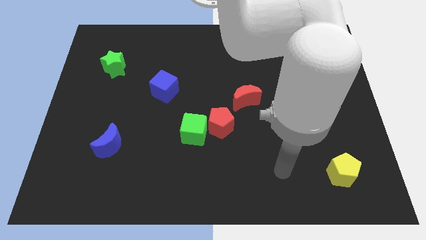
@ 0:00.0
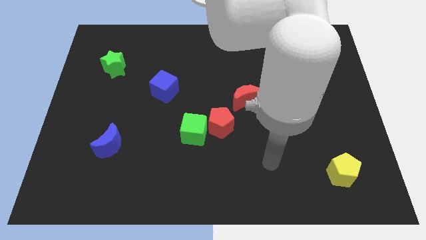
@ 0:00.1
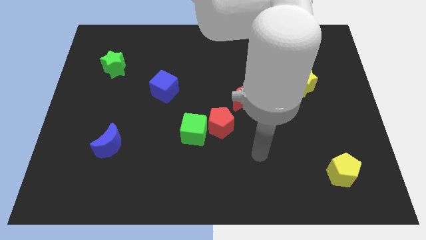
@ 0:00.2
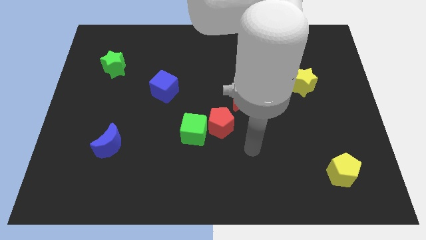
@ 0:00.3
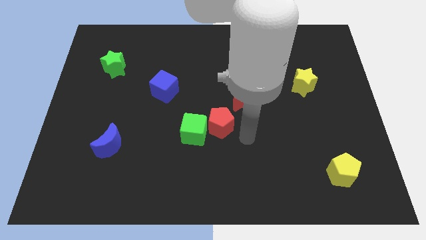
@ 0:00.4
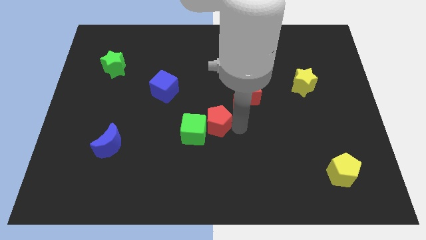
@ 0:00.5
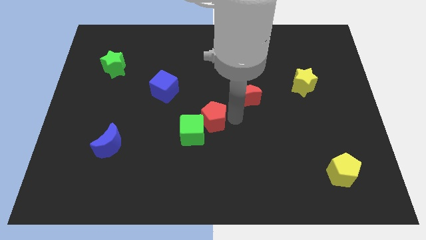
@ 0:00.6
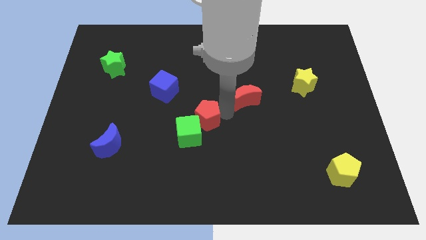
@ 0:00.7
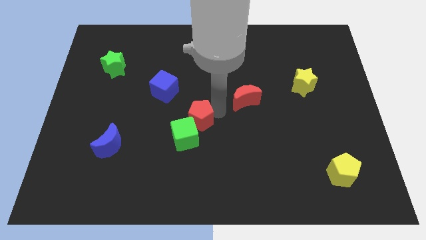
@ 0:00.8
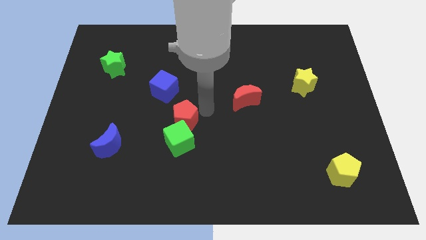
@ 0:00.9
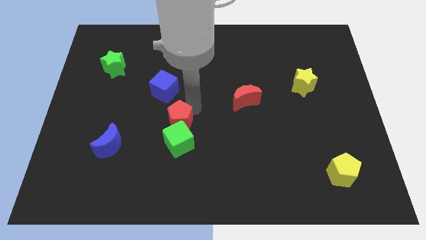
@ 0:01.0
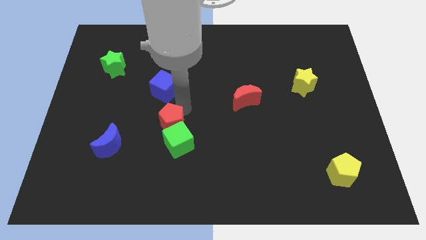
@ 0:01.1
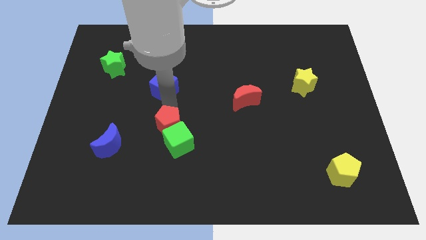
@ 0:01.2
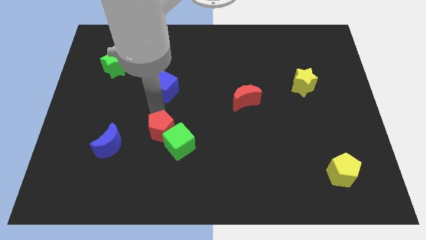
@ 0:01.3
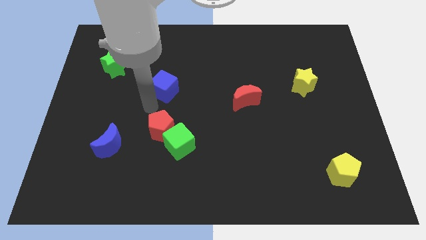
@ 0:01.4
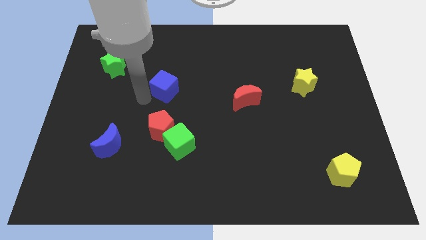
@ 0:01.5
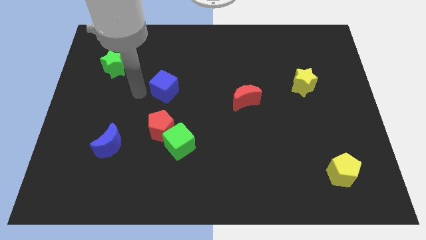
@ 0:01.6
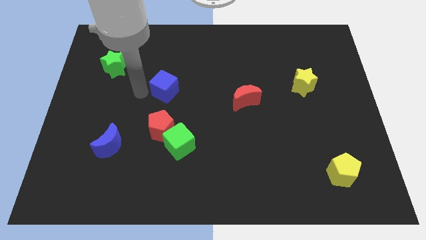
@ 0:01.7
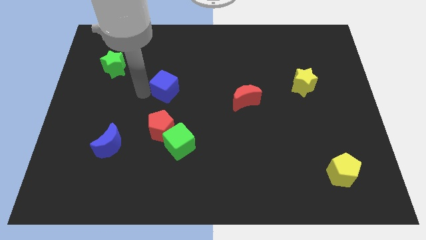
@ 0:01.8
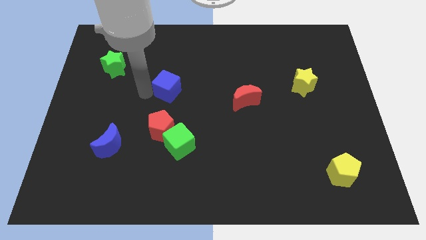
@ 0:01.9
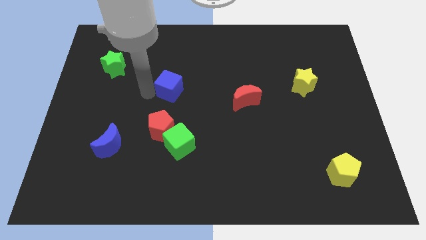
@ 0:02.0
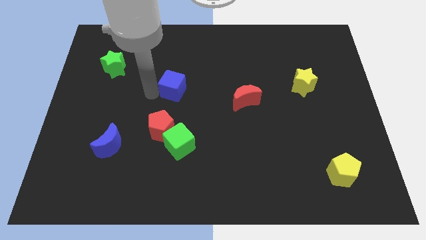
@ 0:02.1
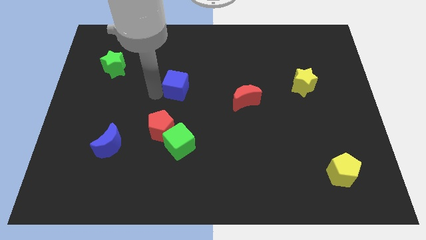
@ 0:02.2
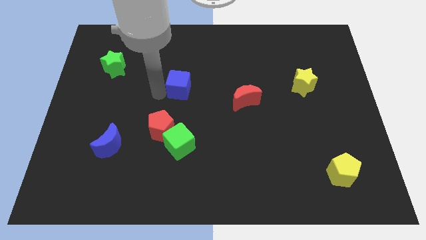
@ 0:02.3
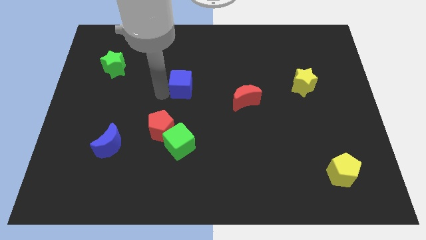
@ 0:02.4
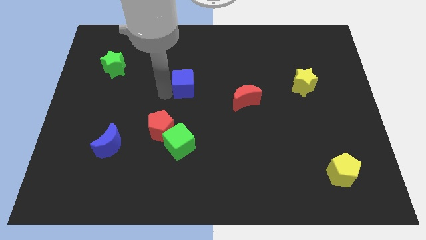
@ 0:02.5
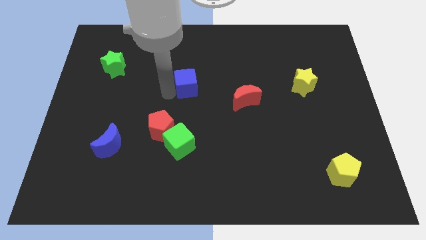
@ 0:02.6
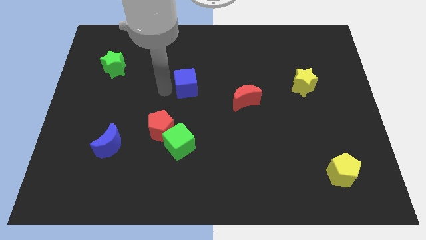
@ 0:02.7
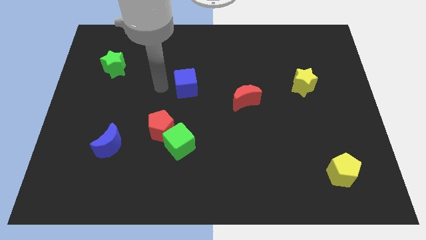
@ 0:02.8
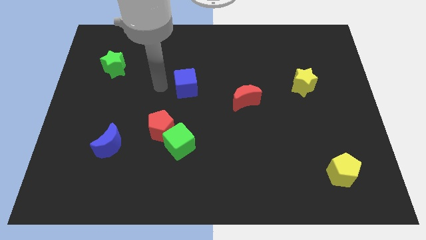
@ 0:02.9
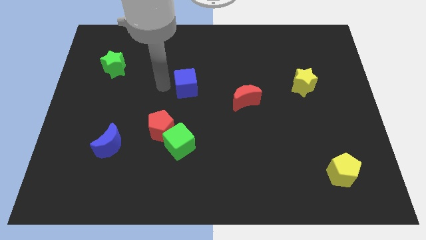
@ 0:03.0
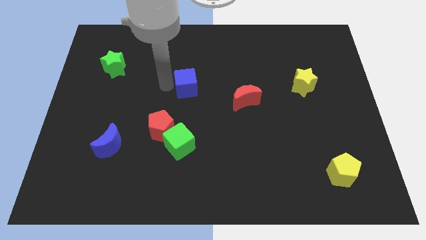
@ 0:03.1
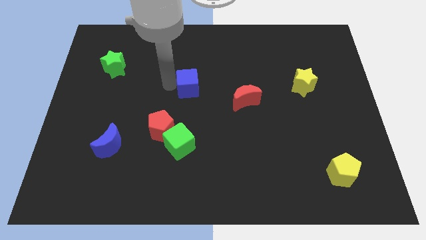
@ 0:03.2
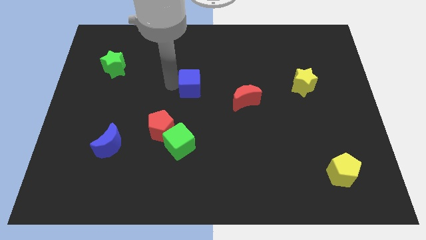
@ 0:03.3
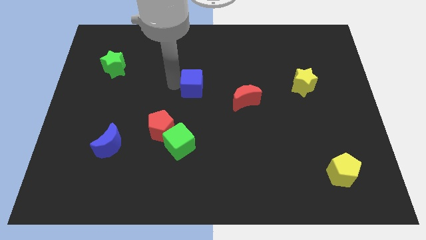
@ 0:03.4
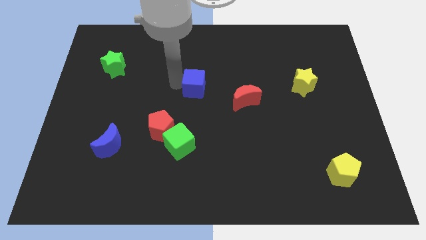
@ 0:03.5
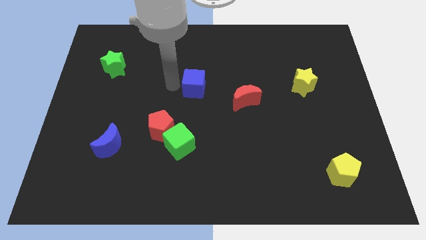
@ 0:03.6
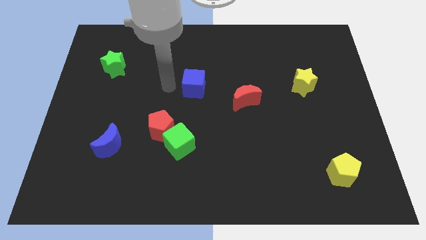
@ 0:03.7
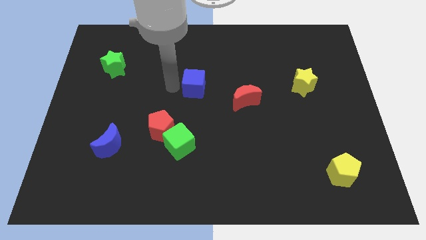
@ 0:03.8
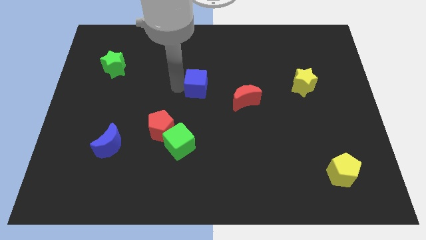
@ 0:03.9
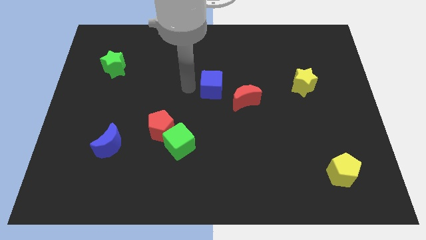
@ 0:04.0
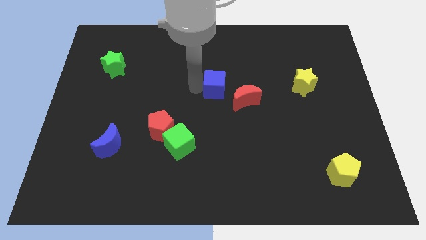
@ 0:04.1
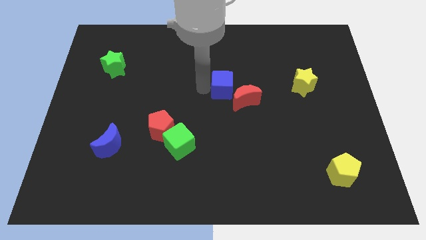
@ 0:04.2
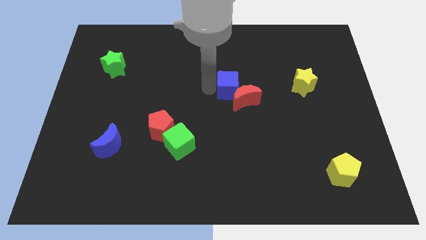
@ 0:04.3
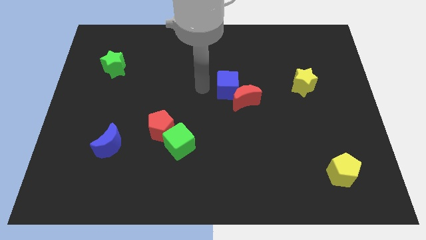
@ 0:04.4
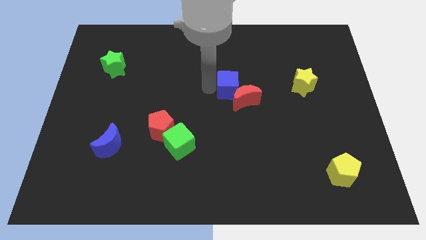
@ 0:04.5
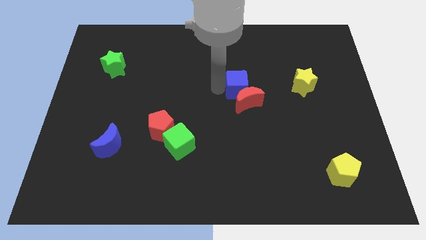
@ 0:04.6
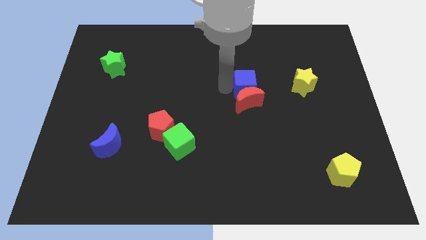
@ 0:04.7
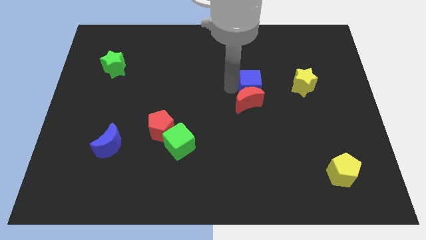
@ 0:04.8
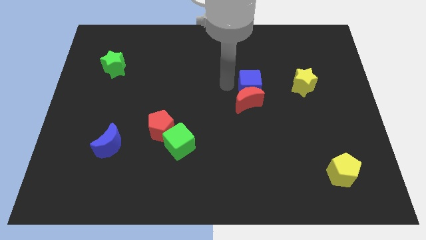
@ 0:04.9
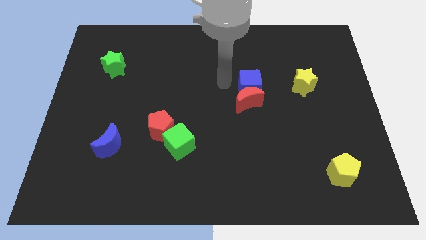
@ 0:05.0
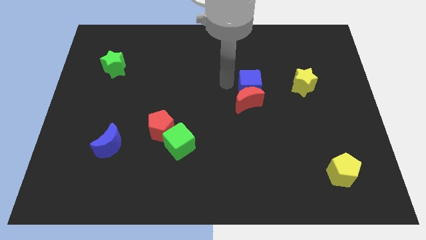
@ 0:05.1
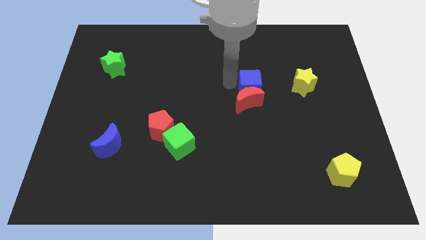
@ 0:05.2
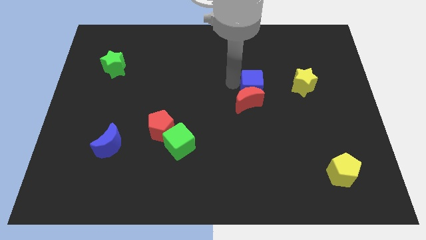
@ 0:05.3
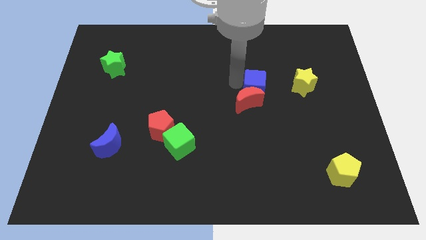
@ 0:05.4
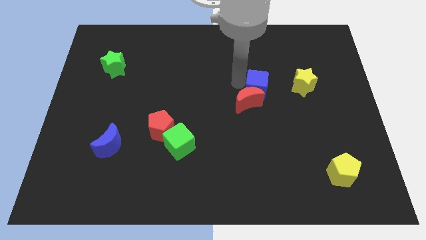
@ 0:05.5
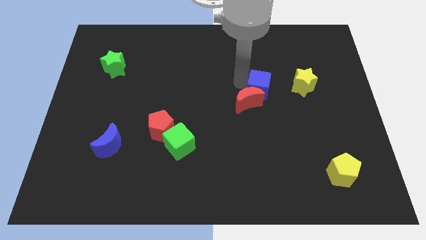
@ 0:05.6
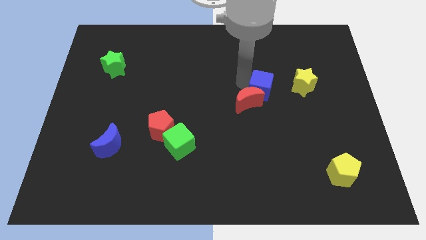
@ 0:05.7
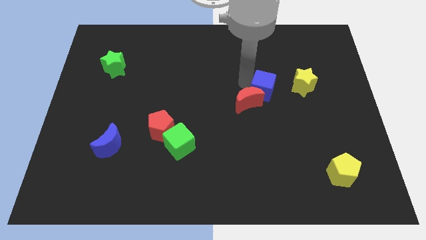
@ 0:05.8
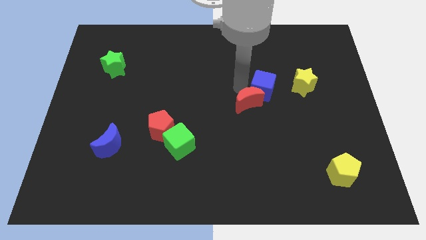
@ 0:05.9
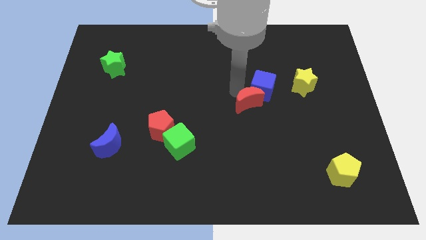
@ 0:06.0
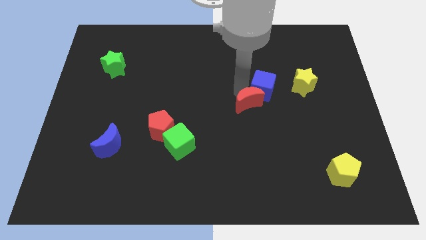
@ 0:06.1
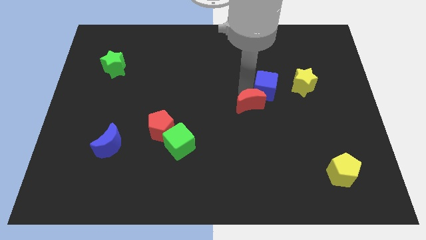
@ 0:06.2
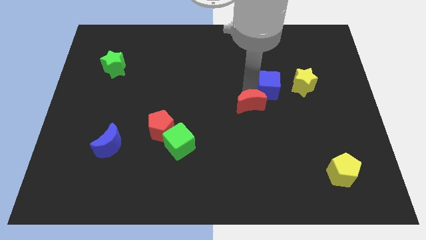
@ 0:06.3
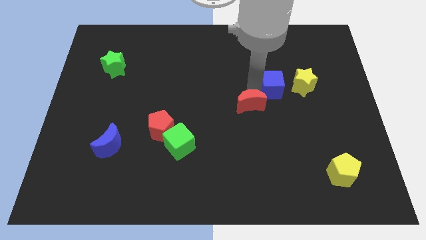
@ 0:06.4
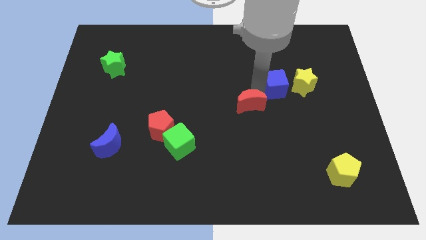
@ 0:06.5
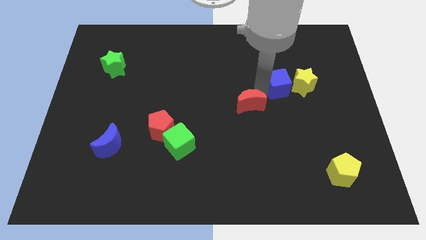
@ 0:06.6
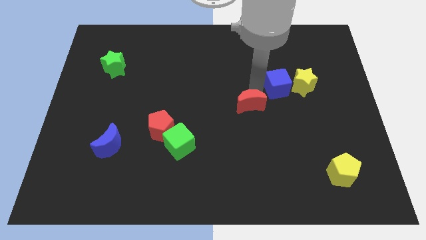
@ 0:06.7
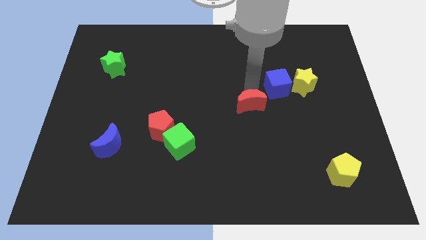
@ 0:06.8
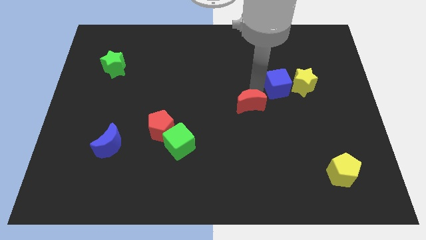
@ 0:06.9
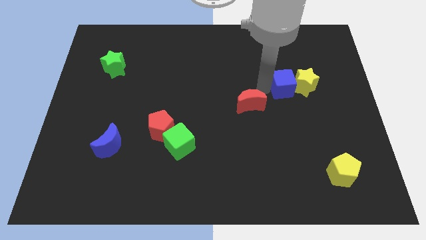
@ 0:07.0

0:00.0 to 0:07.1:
put the blue cube to the yellow star
